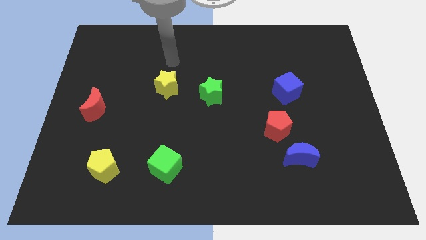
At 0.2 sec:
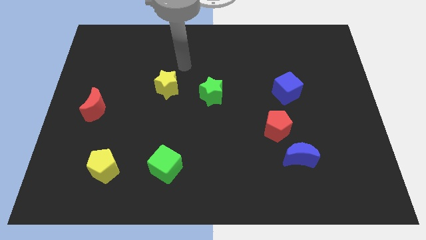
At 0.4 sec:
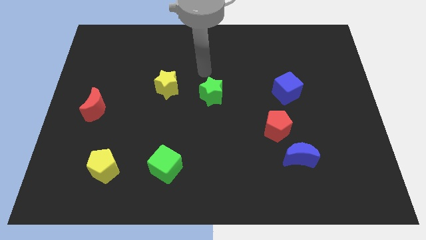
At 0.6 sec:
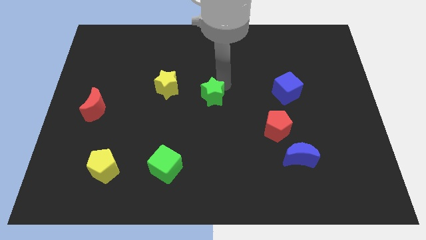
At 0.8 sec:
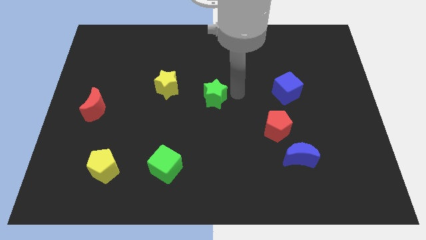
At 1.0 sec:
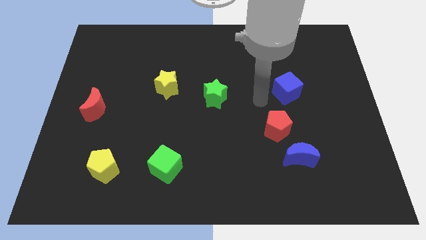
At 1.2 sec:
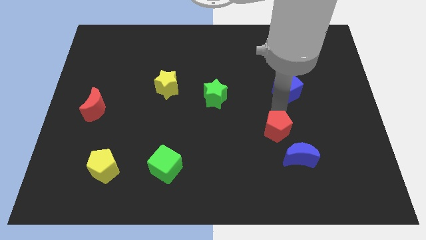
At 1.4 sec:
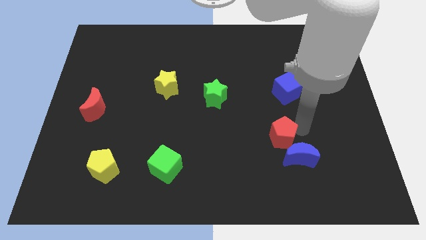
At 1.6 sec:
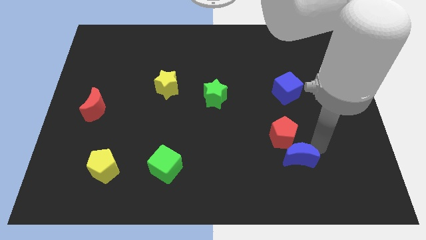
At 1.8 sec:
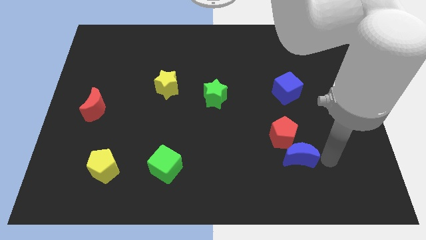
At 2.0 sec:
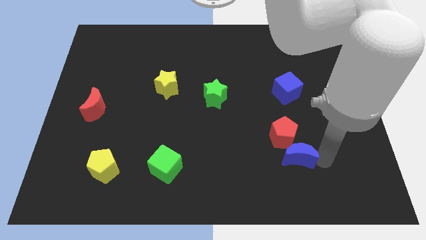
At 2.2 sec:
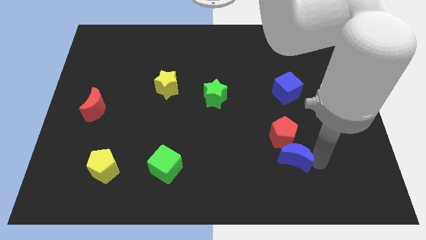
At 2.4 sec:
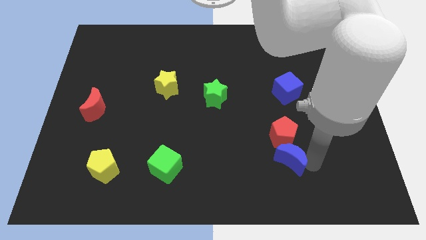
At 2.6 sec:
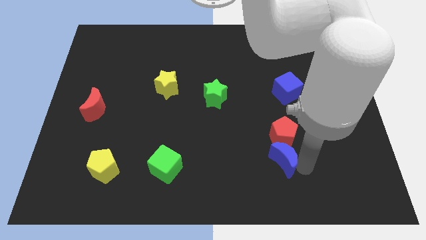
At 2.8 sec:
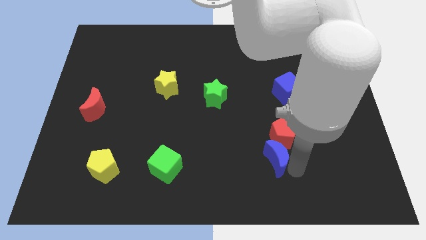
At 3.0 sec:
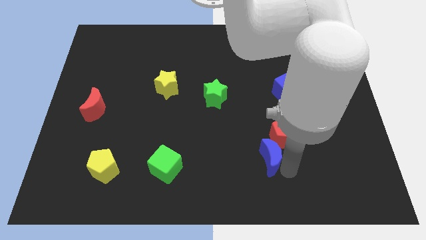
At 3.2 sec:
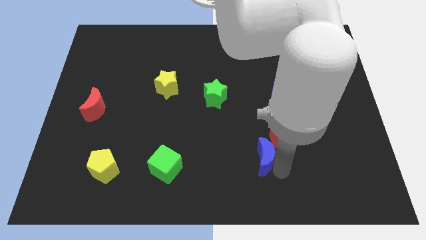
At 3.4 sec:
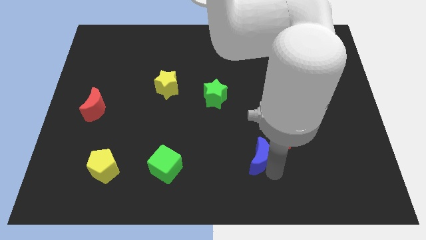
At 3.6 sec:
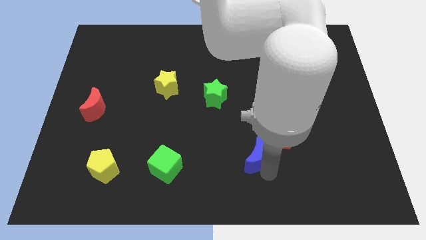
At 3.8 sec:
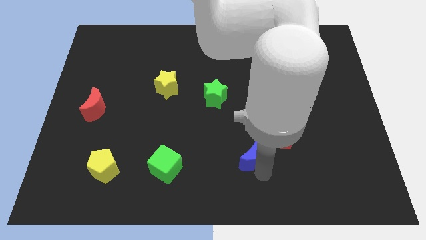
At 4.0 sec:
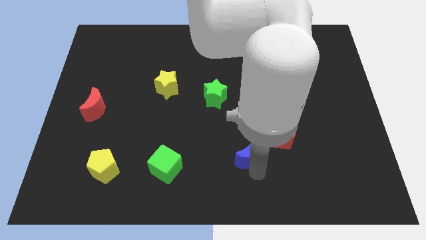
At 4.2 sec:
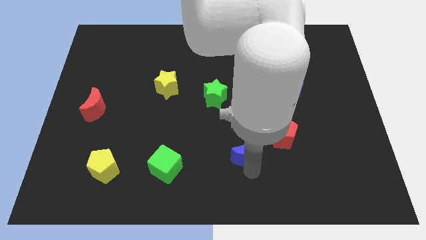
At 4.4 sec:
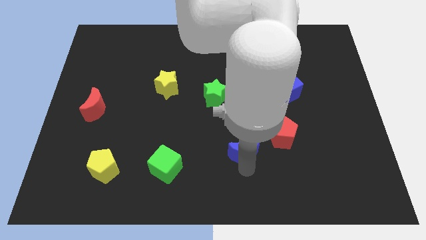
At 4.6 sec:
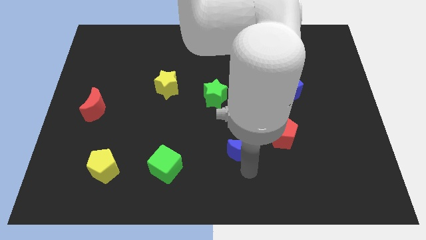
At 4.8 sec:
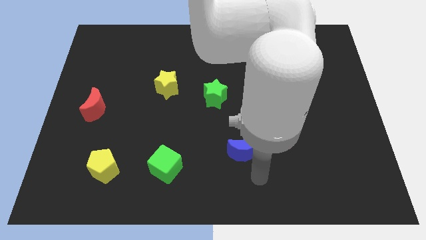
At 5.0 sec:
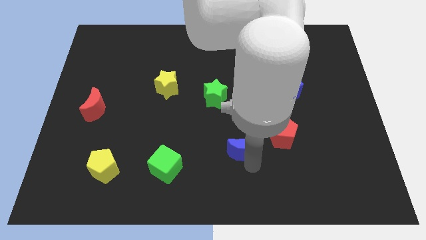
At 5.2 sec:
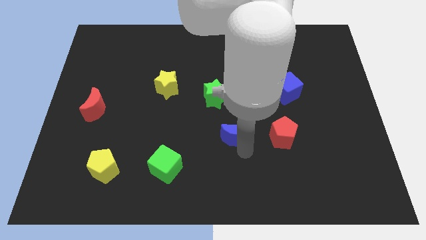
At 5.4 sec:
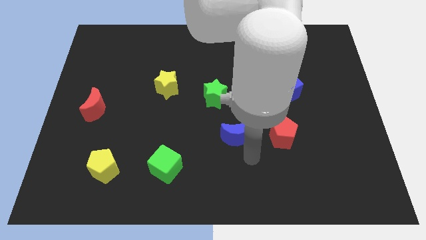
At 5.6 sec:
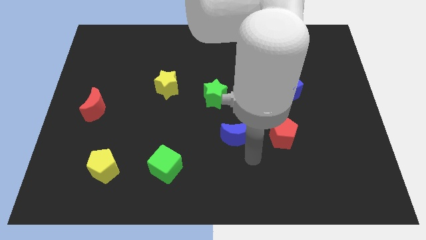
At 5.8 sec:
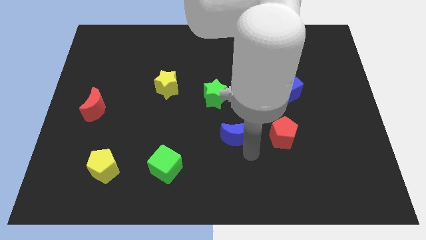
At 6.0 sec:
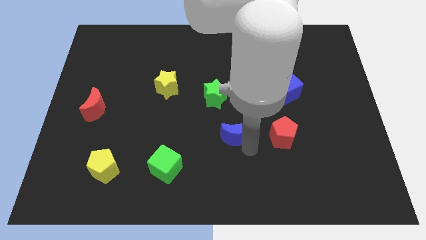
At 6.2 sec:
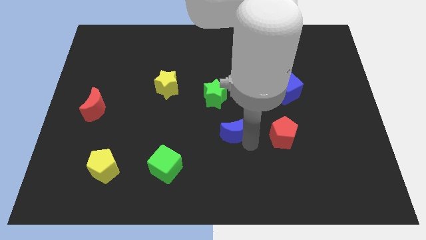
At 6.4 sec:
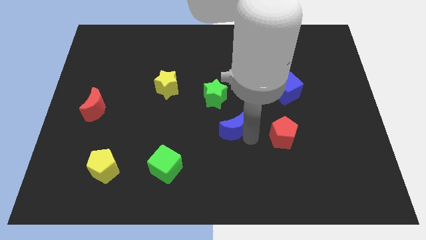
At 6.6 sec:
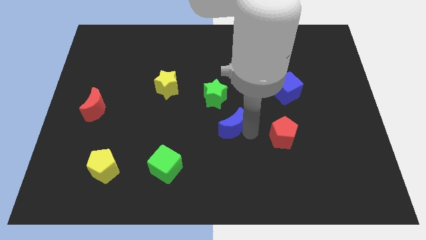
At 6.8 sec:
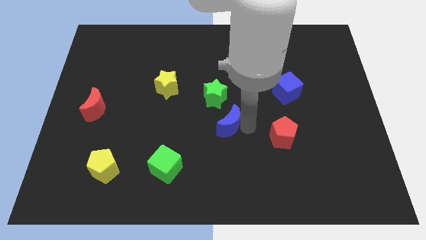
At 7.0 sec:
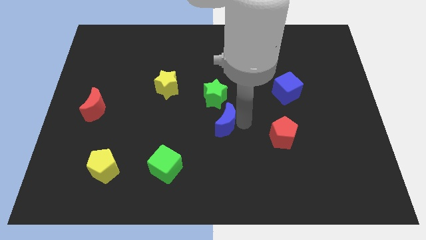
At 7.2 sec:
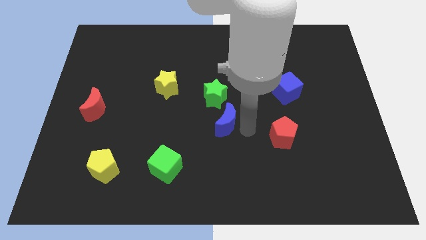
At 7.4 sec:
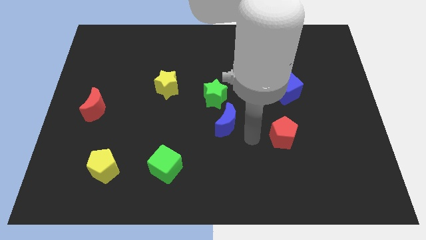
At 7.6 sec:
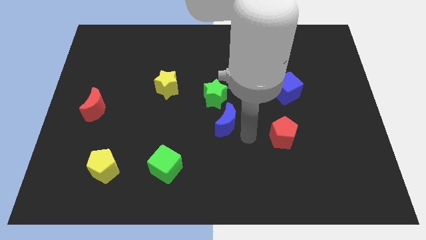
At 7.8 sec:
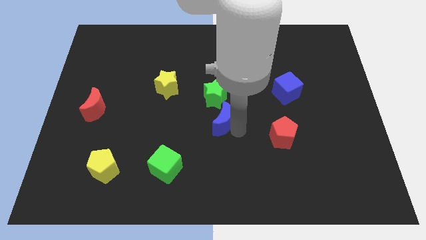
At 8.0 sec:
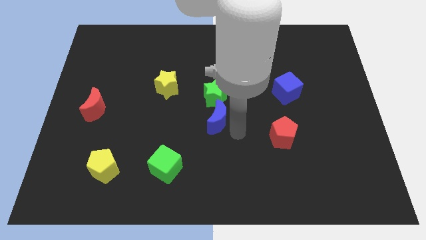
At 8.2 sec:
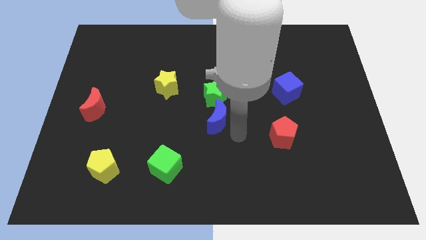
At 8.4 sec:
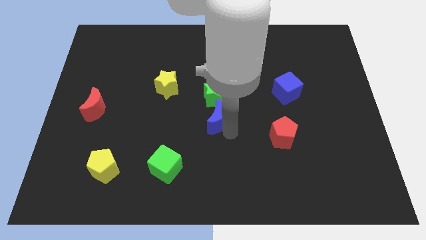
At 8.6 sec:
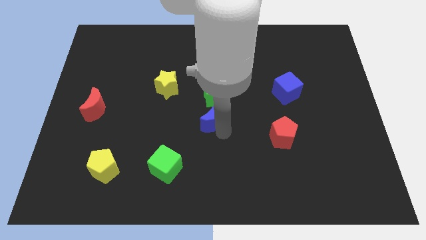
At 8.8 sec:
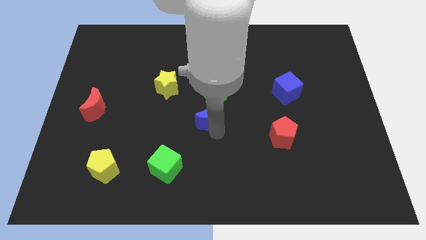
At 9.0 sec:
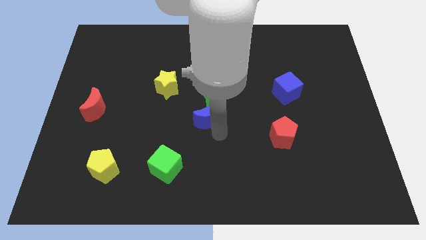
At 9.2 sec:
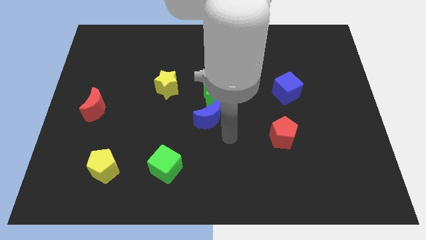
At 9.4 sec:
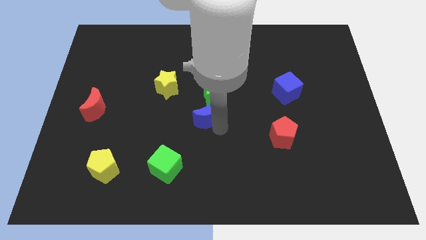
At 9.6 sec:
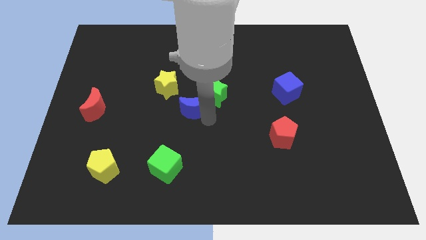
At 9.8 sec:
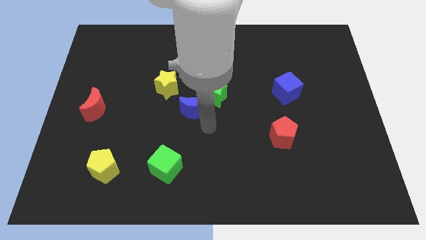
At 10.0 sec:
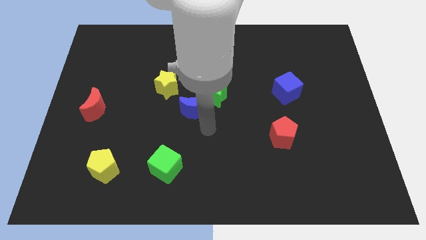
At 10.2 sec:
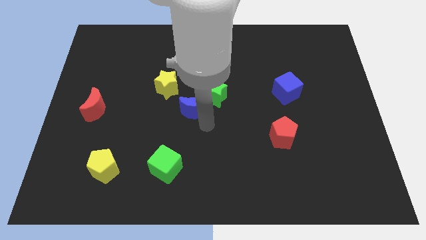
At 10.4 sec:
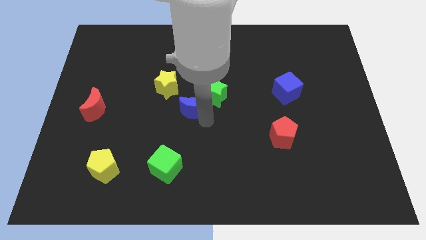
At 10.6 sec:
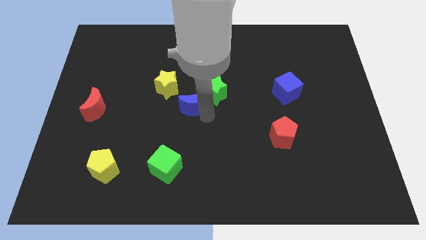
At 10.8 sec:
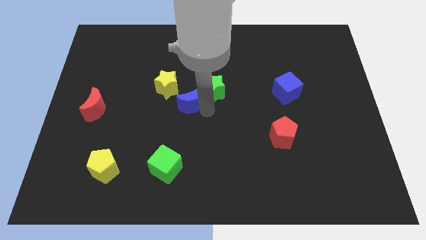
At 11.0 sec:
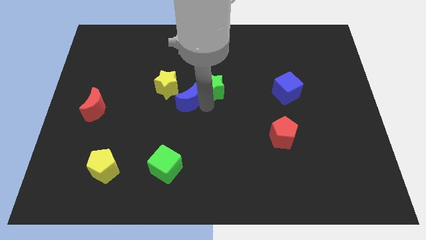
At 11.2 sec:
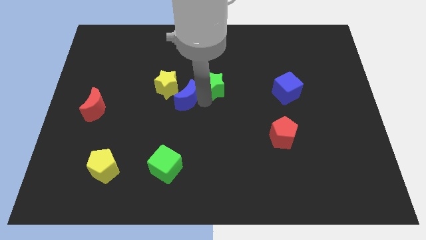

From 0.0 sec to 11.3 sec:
put the blue moon close to the yellow star

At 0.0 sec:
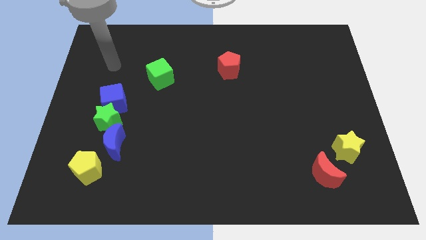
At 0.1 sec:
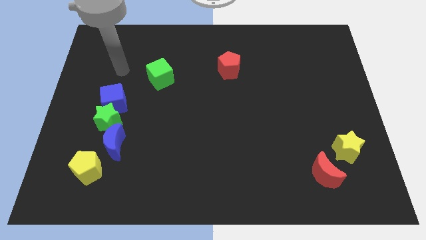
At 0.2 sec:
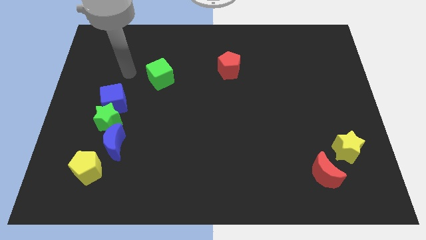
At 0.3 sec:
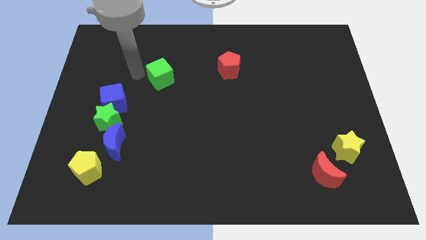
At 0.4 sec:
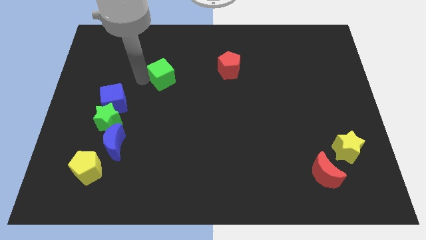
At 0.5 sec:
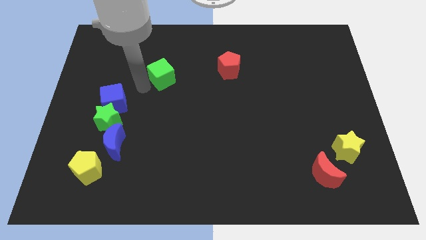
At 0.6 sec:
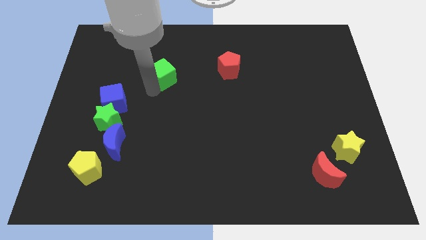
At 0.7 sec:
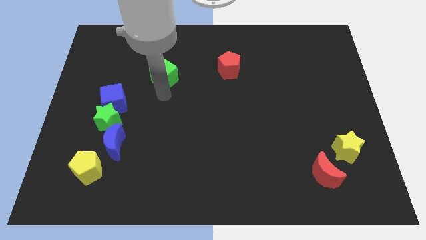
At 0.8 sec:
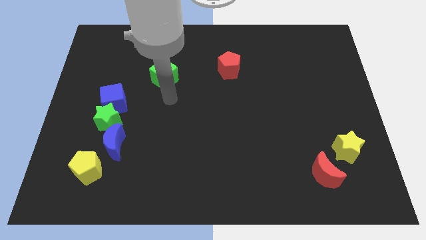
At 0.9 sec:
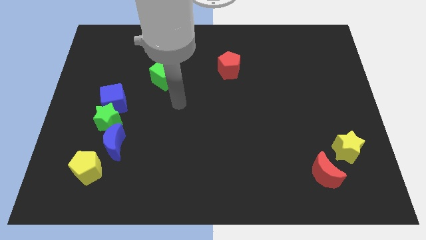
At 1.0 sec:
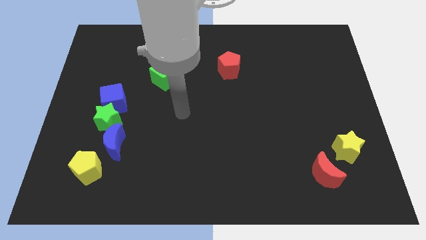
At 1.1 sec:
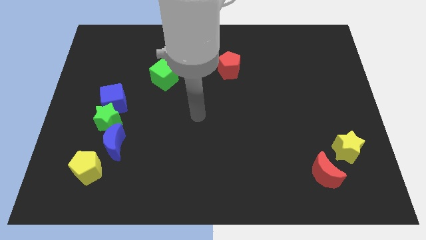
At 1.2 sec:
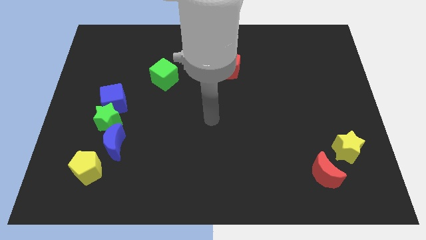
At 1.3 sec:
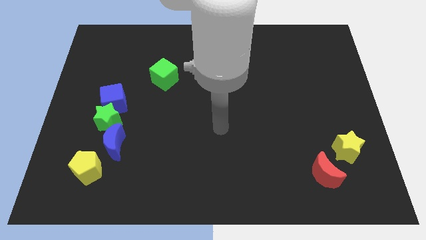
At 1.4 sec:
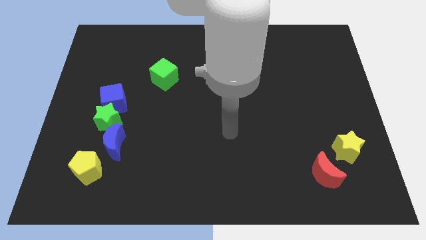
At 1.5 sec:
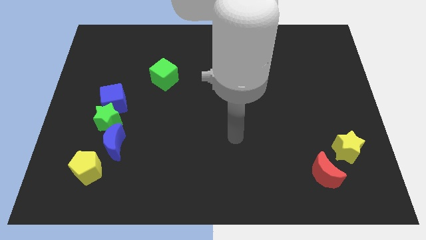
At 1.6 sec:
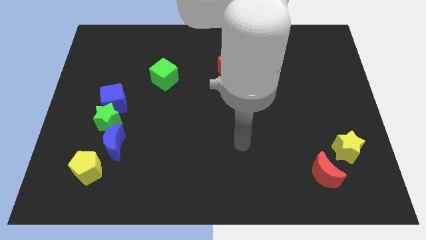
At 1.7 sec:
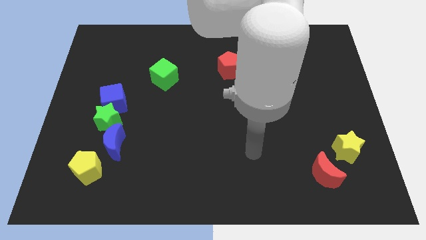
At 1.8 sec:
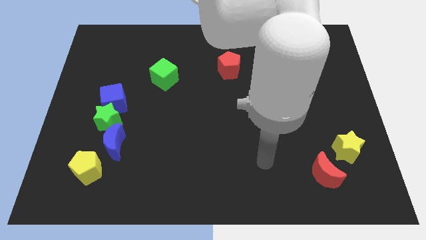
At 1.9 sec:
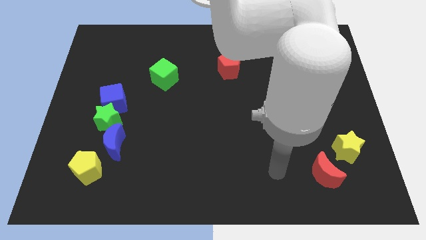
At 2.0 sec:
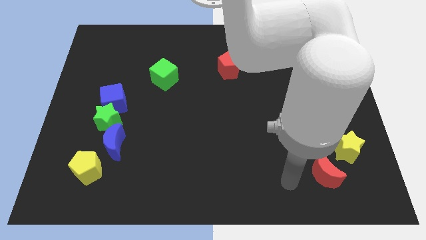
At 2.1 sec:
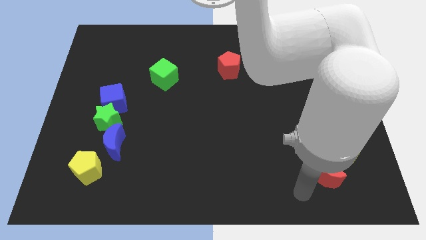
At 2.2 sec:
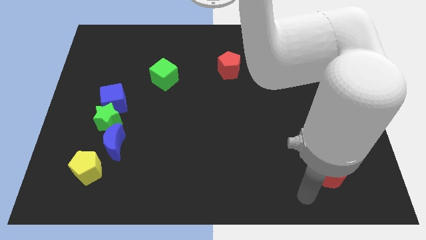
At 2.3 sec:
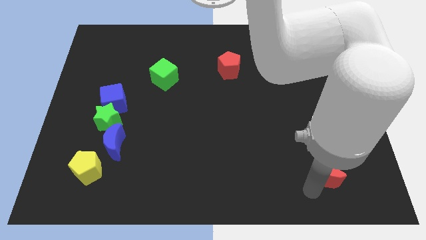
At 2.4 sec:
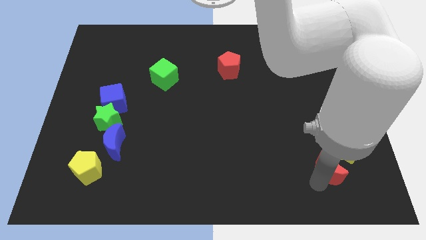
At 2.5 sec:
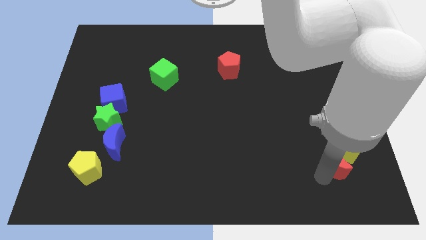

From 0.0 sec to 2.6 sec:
put the red moon to the yellow star
